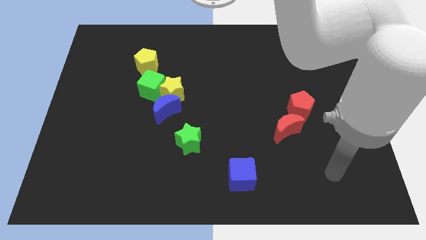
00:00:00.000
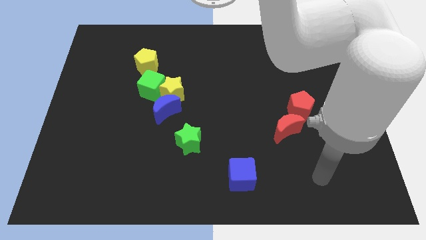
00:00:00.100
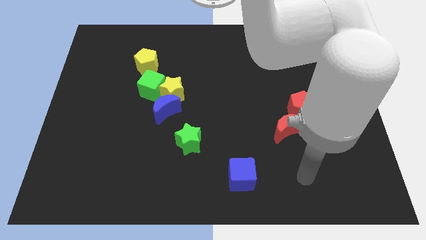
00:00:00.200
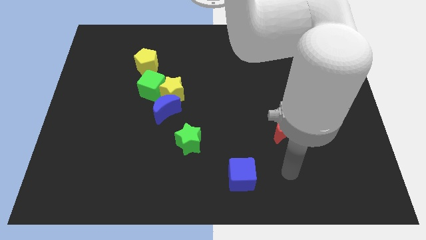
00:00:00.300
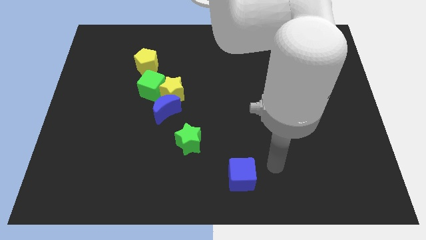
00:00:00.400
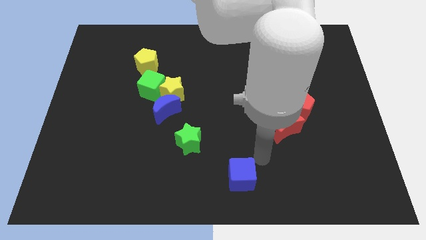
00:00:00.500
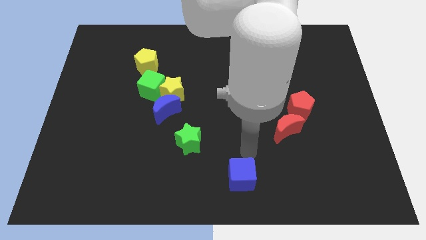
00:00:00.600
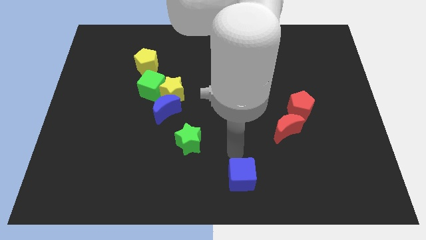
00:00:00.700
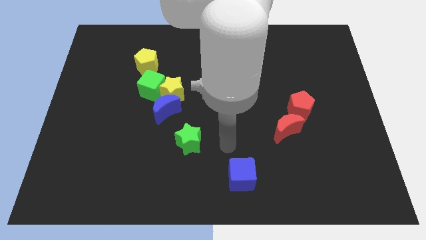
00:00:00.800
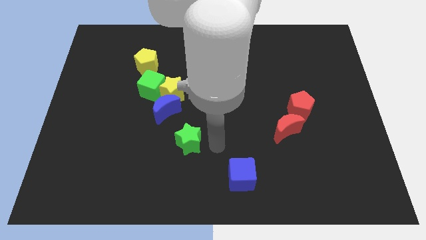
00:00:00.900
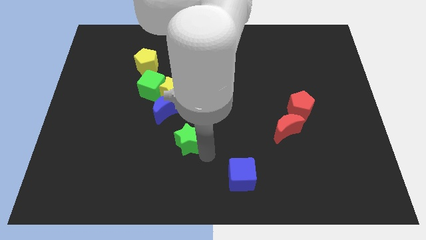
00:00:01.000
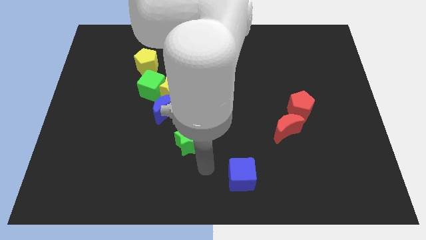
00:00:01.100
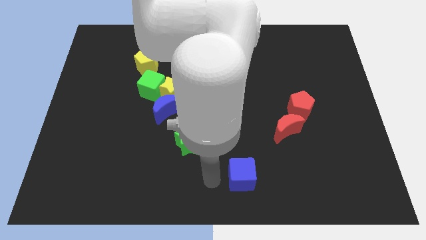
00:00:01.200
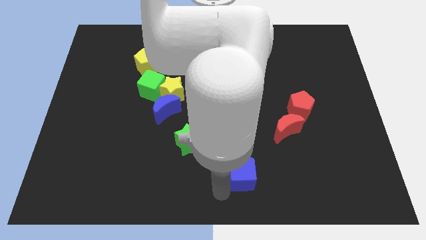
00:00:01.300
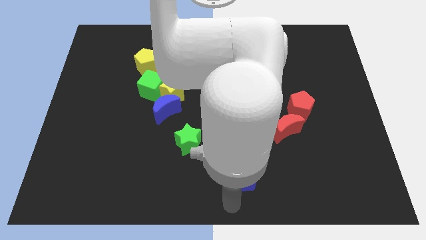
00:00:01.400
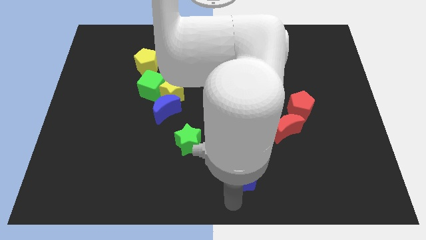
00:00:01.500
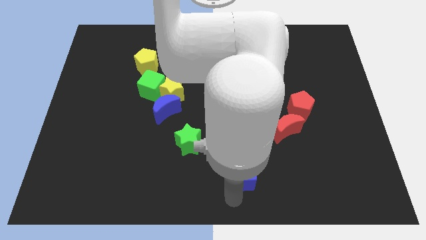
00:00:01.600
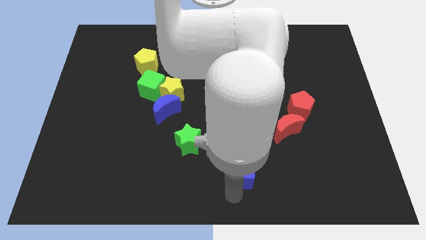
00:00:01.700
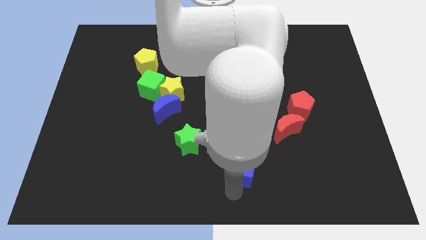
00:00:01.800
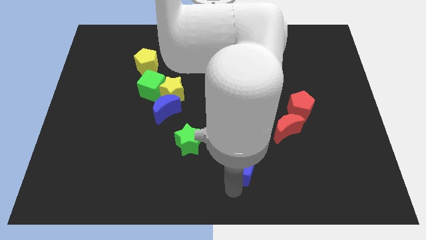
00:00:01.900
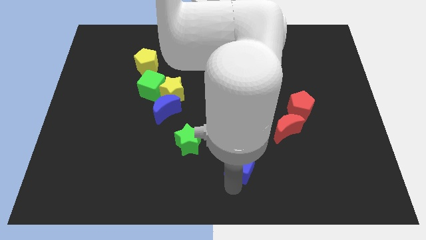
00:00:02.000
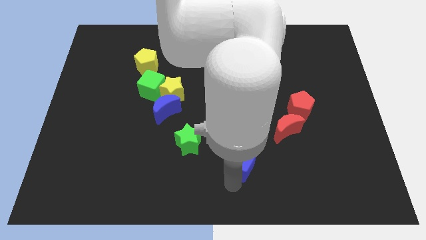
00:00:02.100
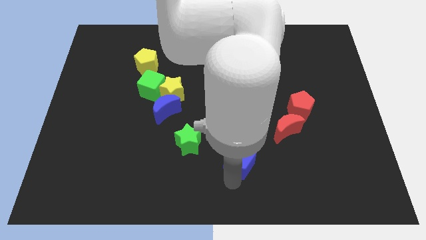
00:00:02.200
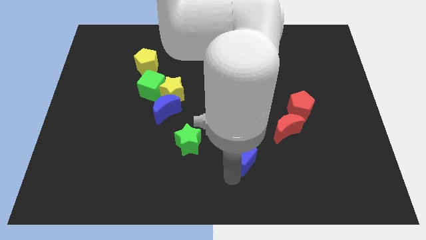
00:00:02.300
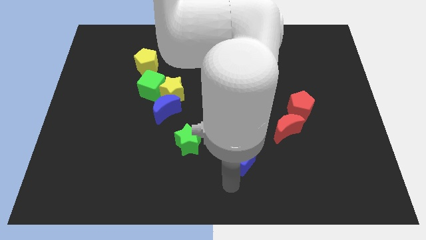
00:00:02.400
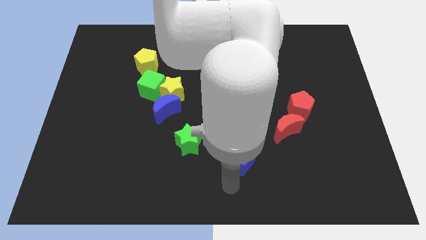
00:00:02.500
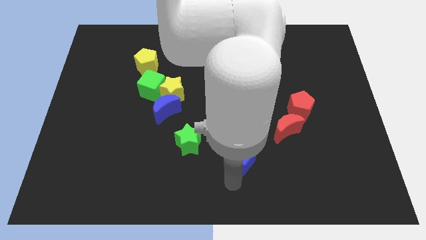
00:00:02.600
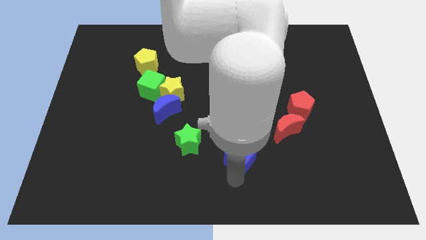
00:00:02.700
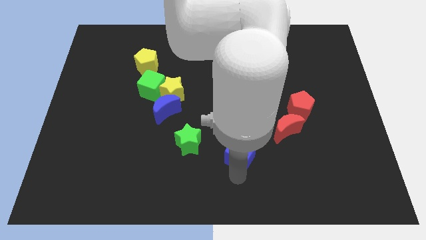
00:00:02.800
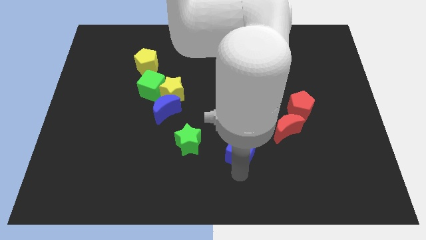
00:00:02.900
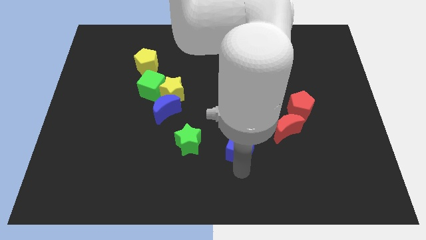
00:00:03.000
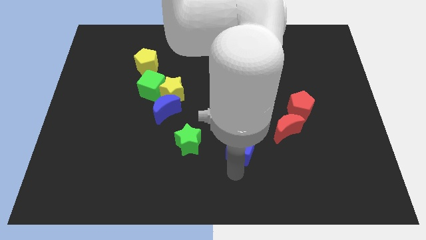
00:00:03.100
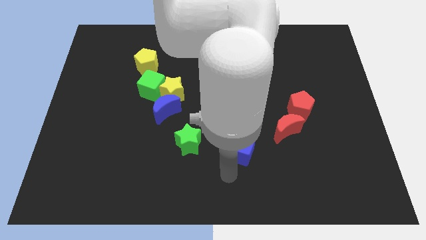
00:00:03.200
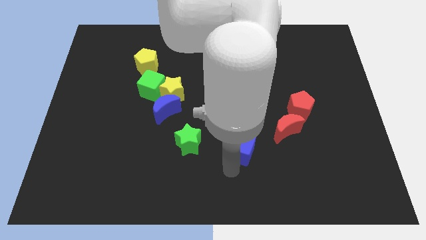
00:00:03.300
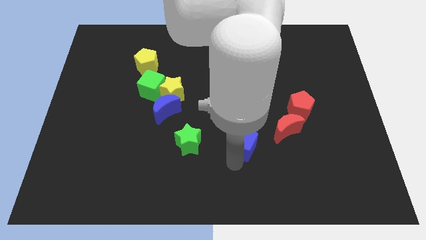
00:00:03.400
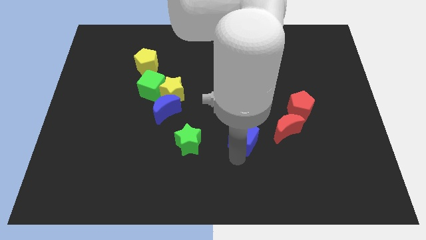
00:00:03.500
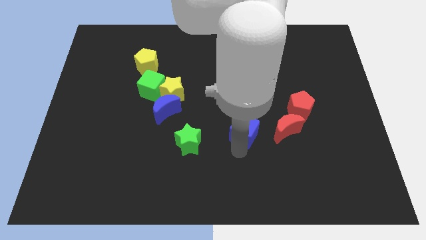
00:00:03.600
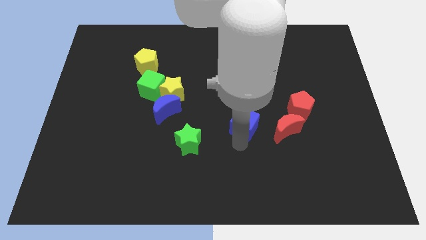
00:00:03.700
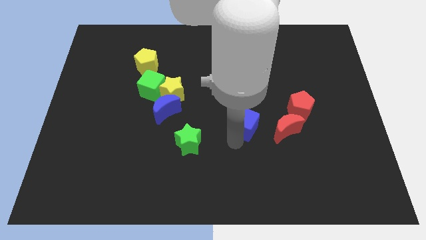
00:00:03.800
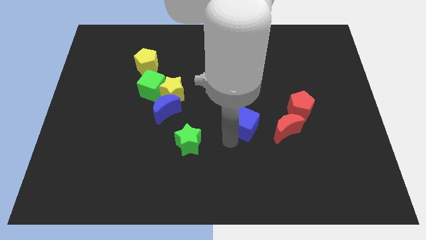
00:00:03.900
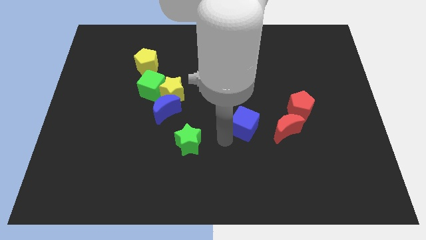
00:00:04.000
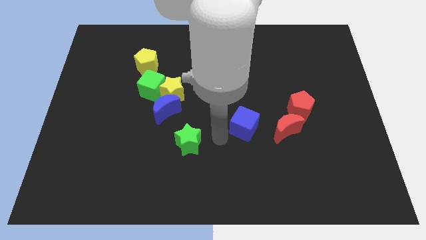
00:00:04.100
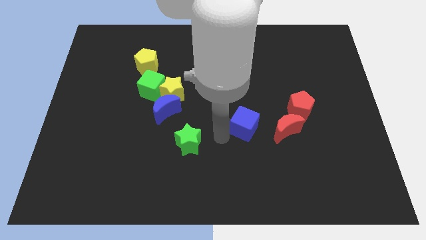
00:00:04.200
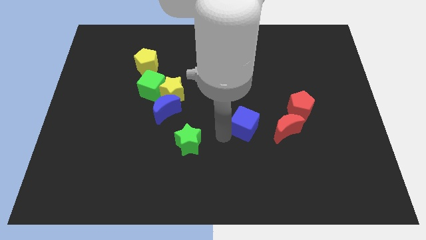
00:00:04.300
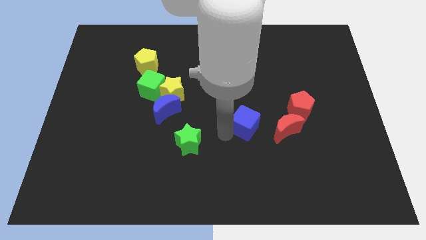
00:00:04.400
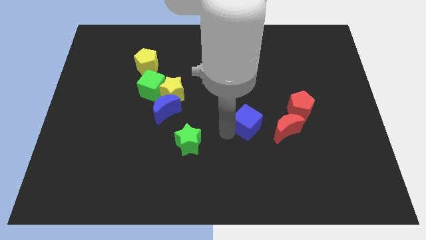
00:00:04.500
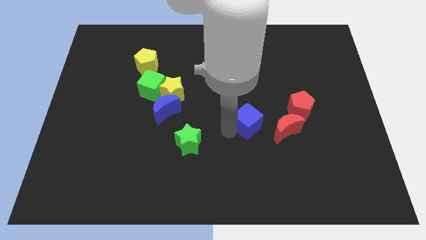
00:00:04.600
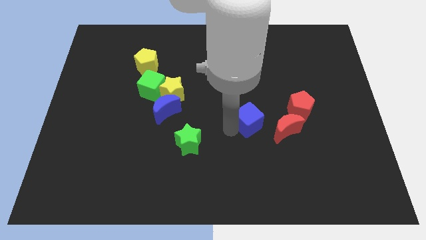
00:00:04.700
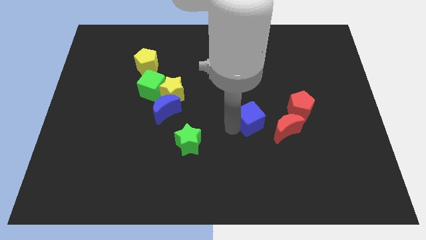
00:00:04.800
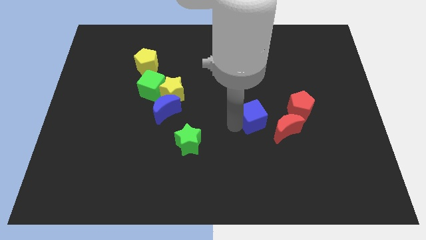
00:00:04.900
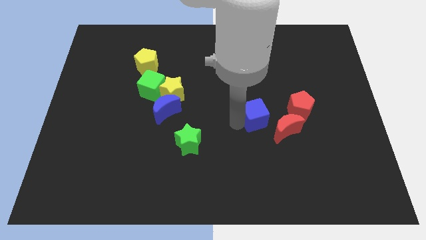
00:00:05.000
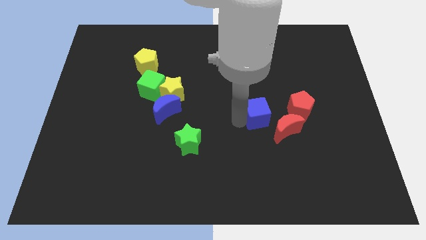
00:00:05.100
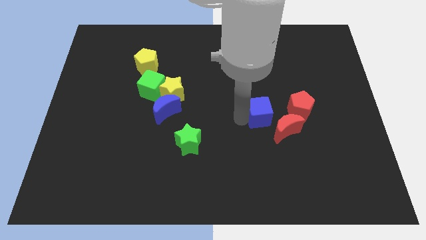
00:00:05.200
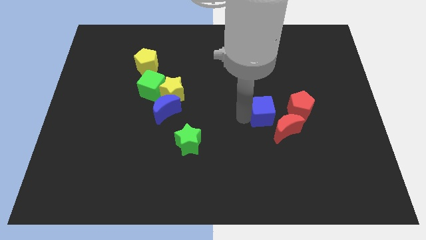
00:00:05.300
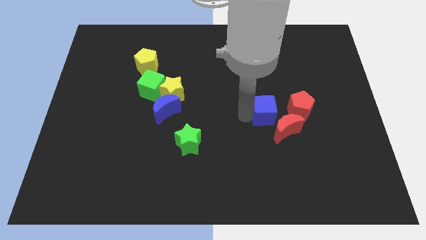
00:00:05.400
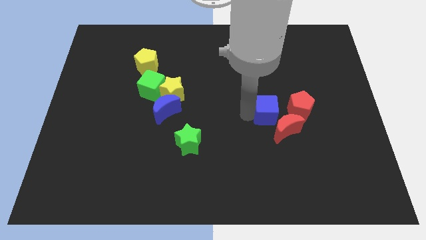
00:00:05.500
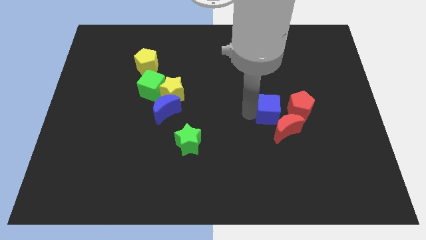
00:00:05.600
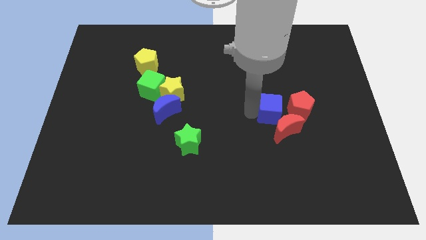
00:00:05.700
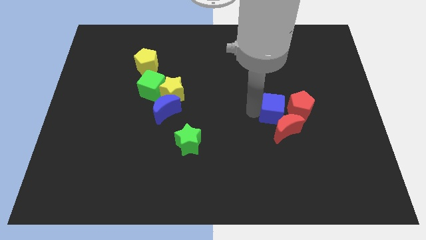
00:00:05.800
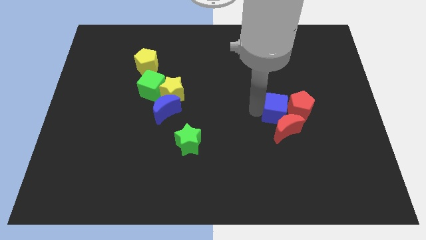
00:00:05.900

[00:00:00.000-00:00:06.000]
move the blue cube to the red pentagon

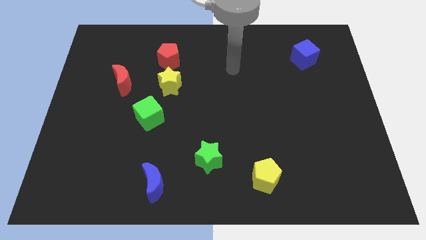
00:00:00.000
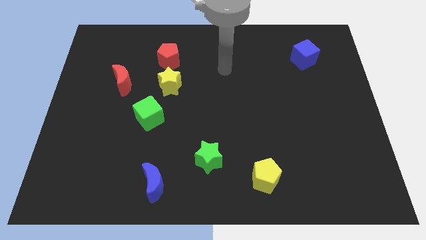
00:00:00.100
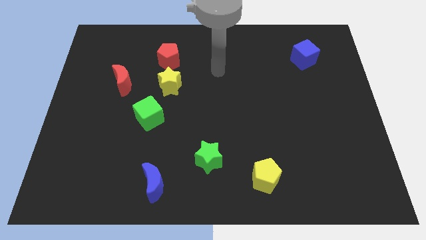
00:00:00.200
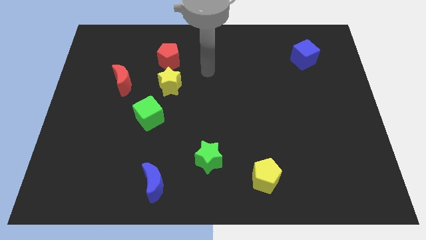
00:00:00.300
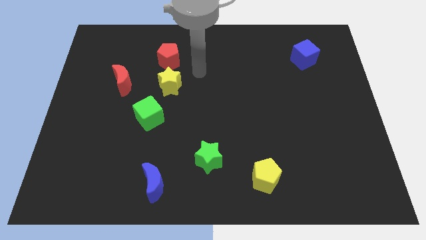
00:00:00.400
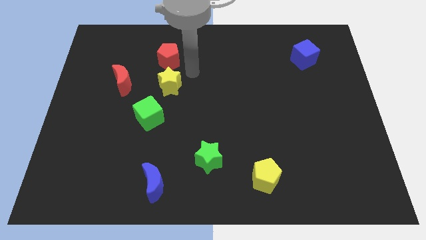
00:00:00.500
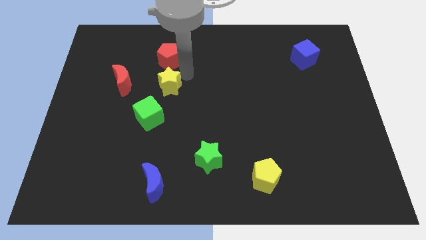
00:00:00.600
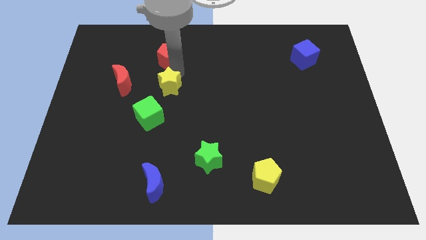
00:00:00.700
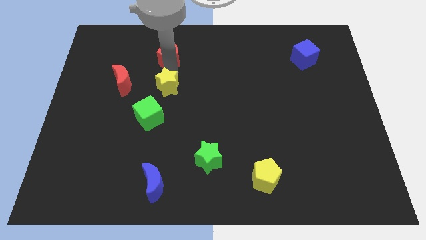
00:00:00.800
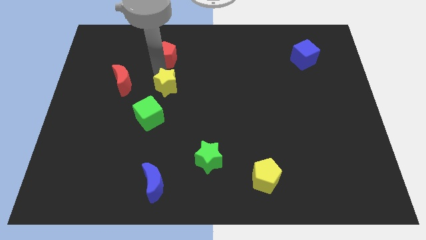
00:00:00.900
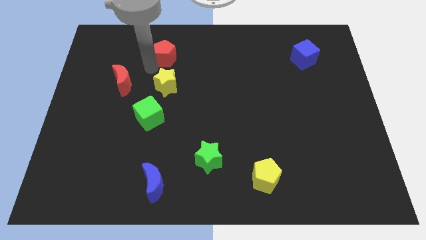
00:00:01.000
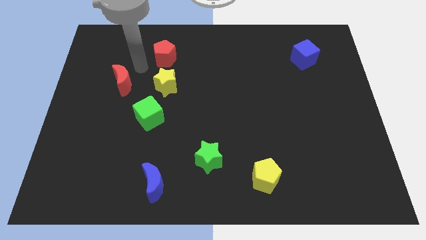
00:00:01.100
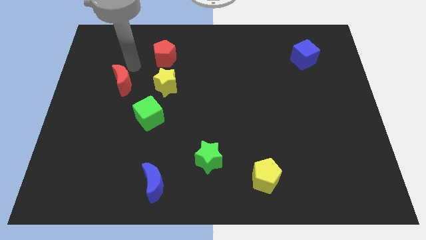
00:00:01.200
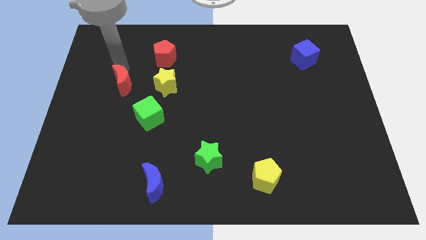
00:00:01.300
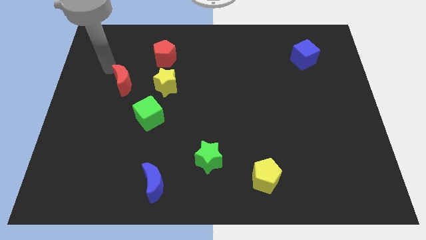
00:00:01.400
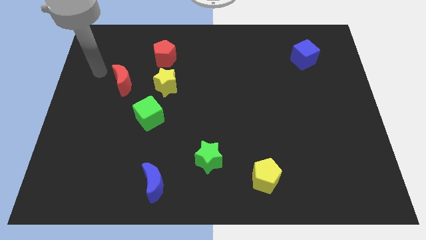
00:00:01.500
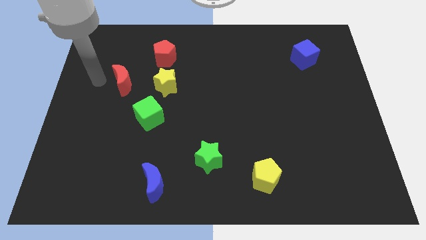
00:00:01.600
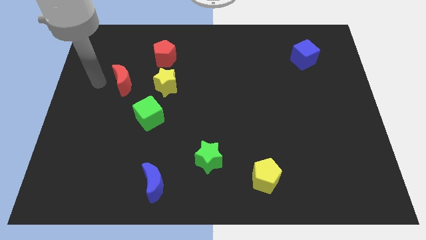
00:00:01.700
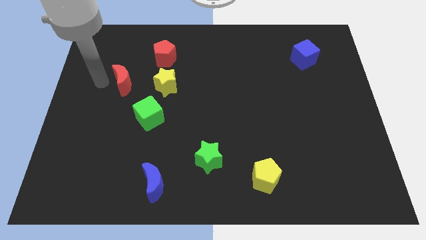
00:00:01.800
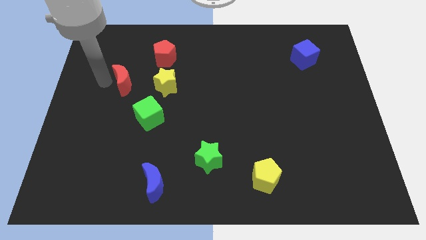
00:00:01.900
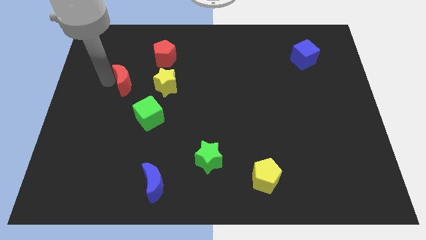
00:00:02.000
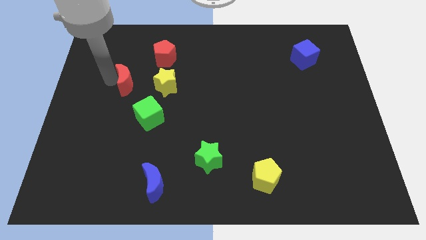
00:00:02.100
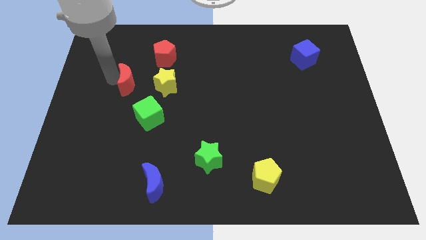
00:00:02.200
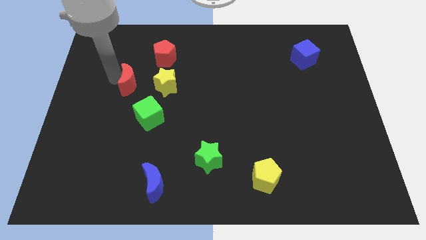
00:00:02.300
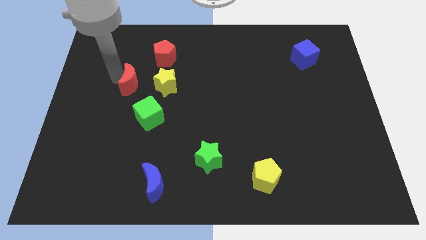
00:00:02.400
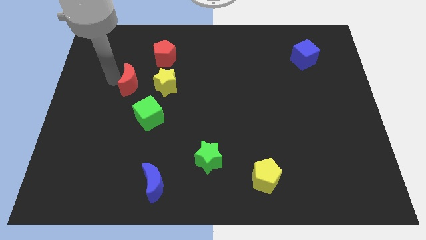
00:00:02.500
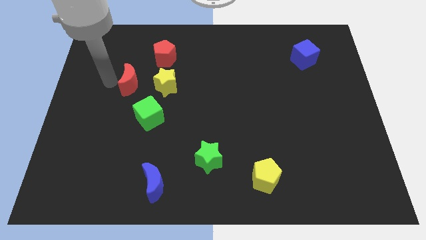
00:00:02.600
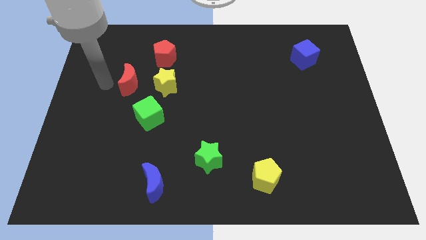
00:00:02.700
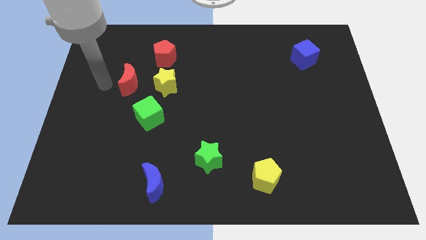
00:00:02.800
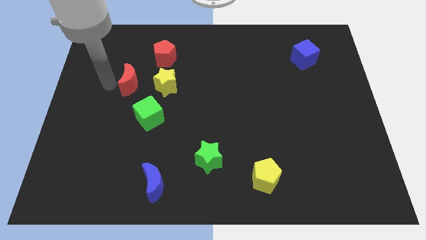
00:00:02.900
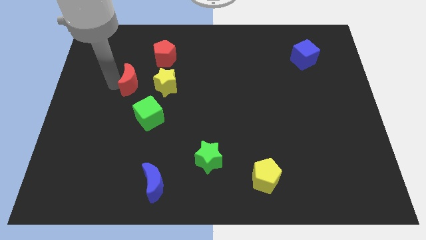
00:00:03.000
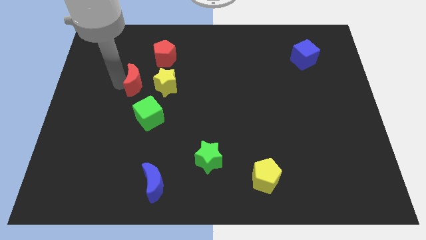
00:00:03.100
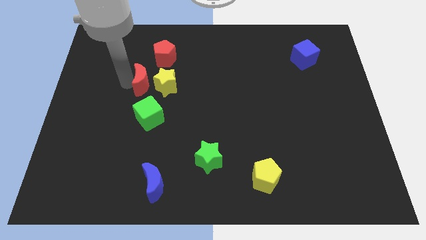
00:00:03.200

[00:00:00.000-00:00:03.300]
push the red moon towards the yellow star
